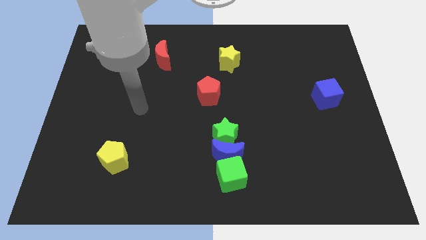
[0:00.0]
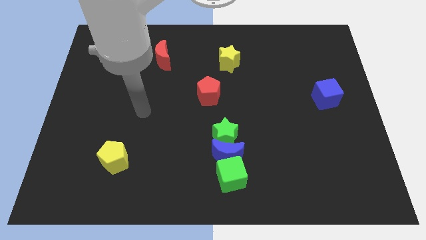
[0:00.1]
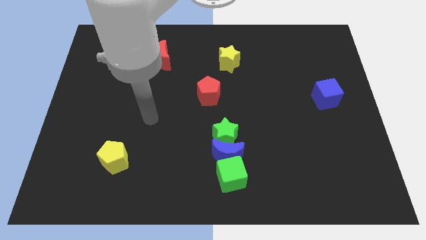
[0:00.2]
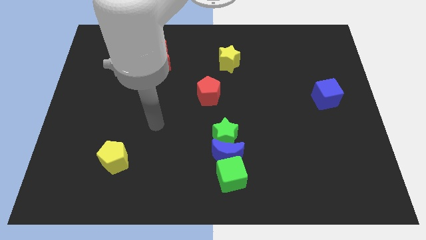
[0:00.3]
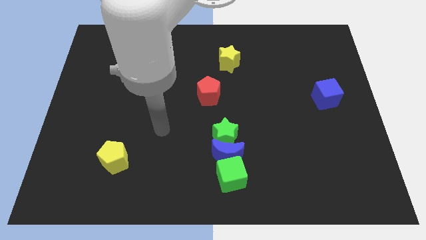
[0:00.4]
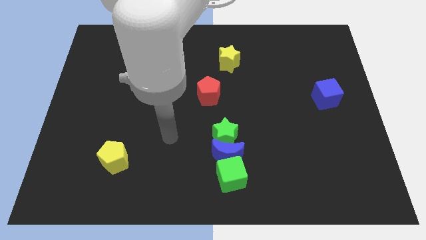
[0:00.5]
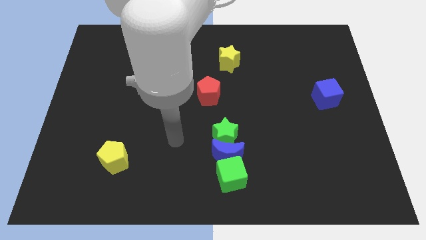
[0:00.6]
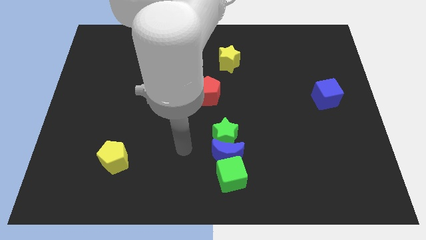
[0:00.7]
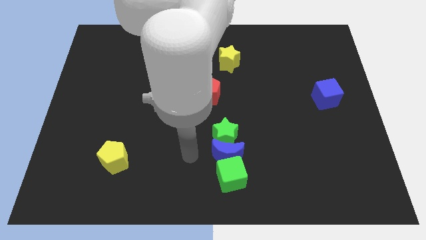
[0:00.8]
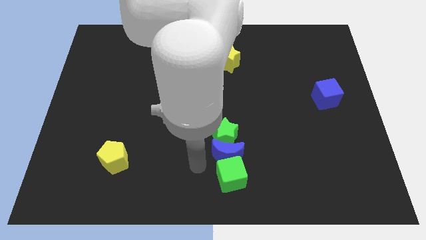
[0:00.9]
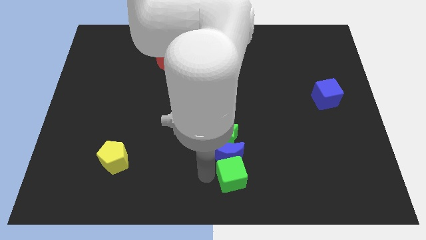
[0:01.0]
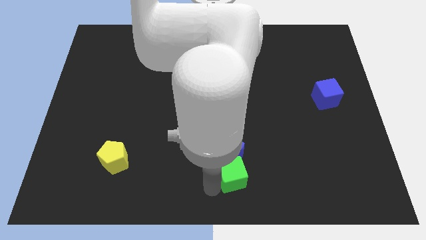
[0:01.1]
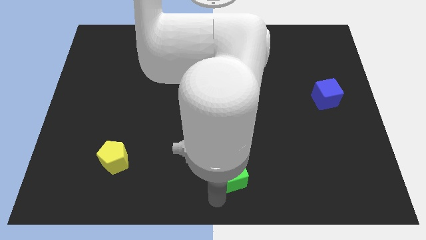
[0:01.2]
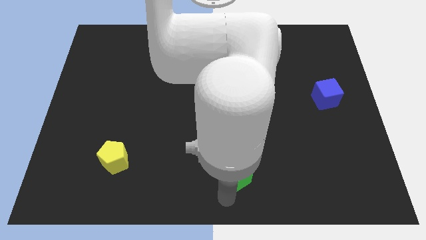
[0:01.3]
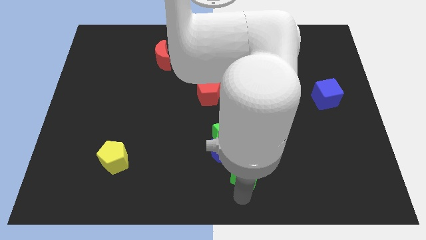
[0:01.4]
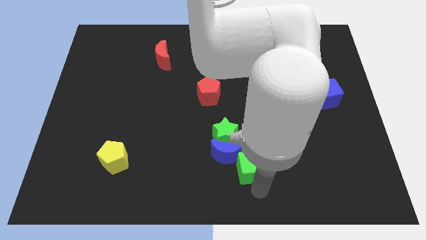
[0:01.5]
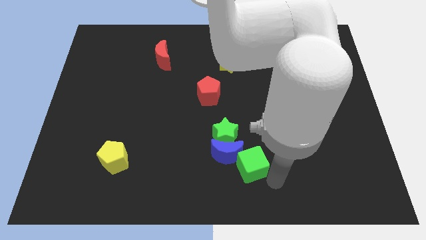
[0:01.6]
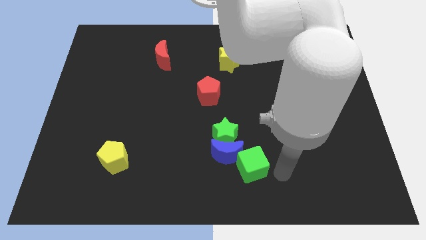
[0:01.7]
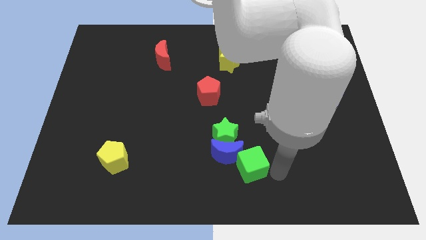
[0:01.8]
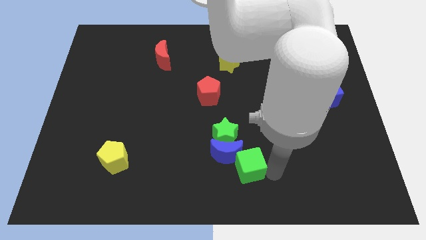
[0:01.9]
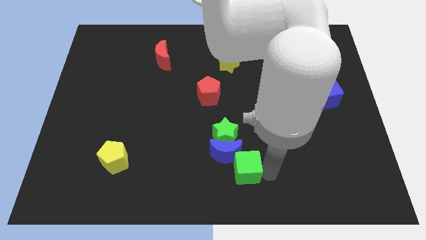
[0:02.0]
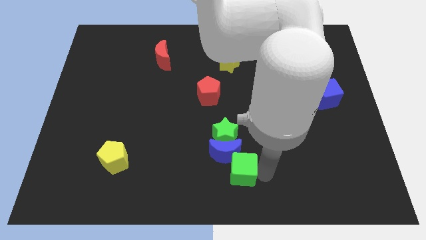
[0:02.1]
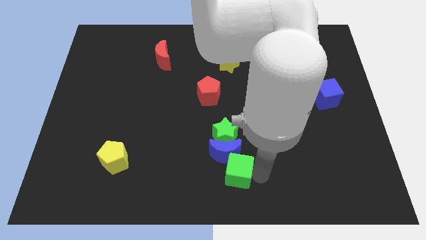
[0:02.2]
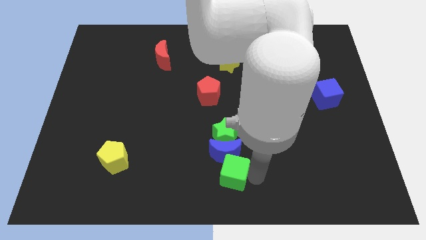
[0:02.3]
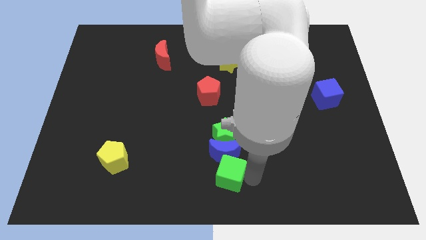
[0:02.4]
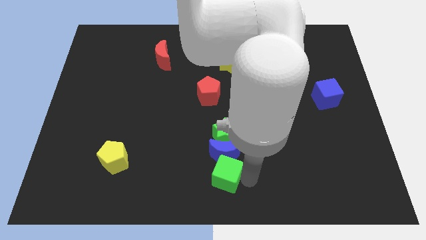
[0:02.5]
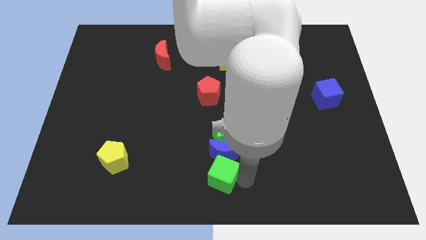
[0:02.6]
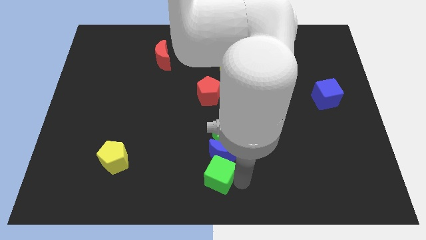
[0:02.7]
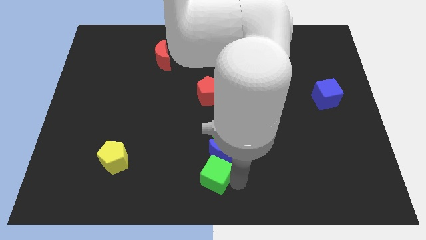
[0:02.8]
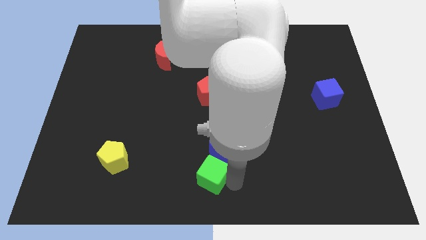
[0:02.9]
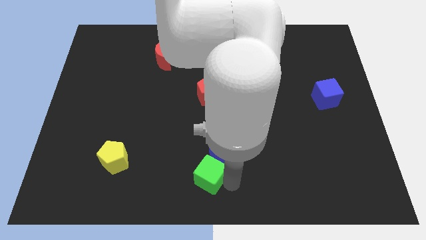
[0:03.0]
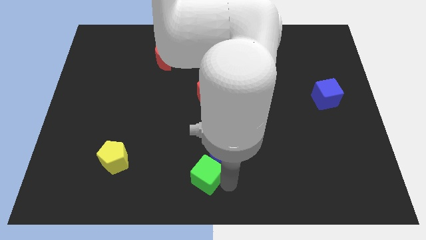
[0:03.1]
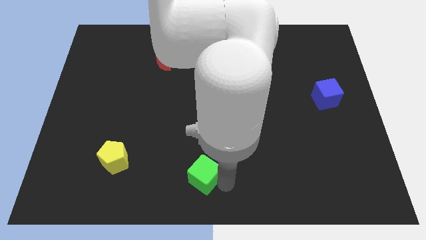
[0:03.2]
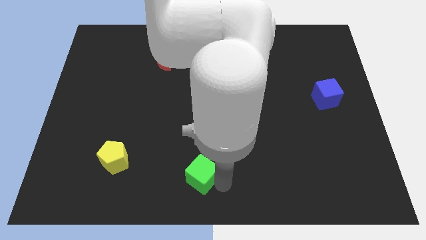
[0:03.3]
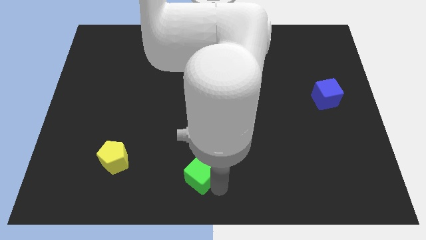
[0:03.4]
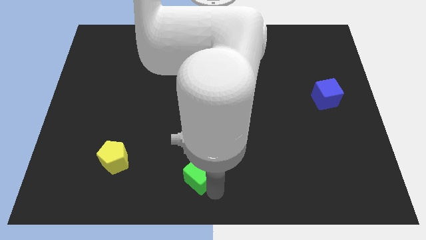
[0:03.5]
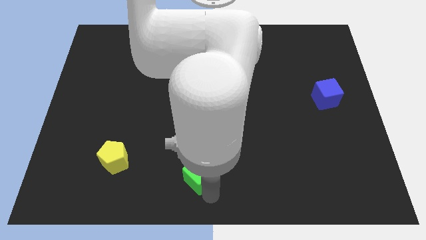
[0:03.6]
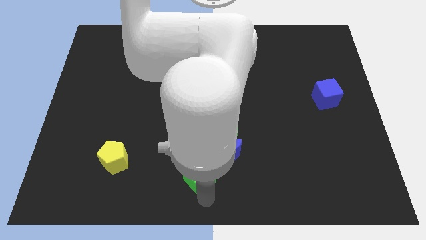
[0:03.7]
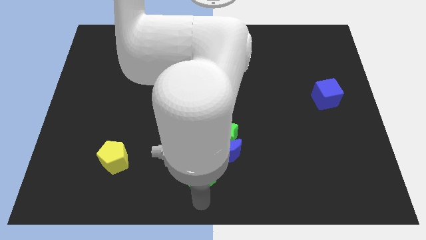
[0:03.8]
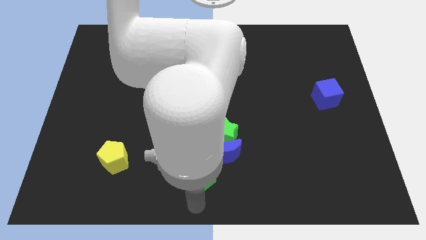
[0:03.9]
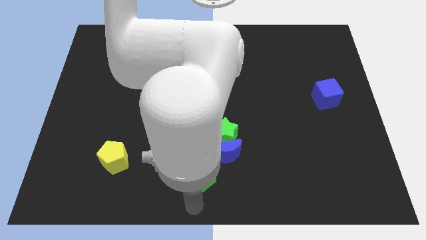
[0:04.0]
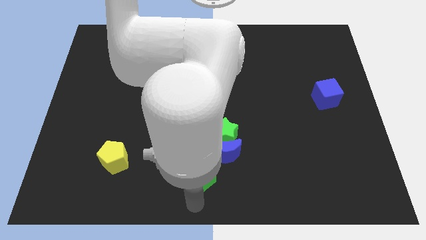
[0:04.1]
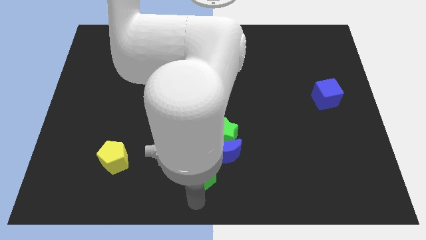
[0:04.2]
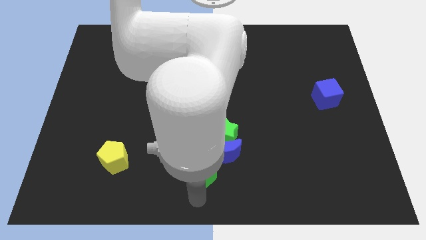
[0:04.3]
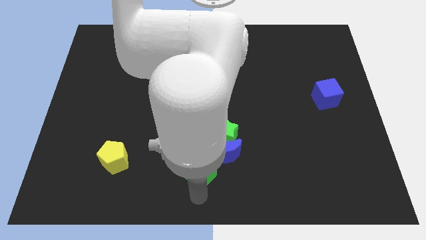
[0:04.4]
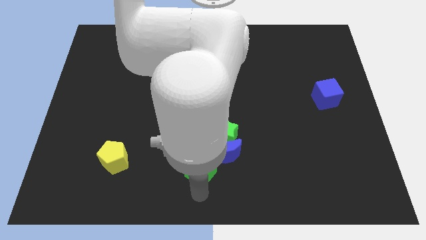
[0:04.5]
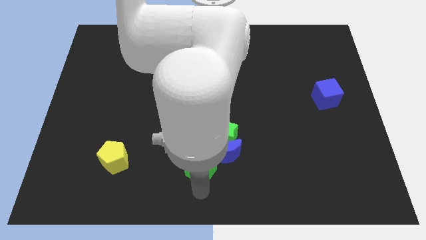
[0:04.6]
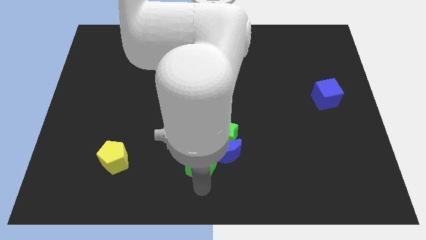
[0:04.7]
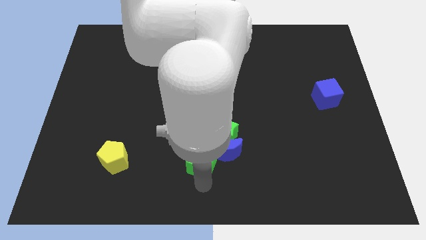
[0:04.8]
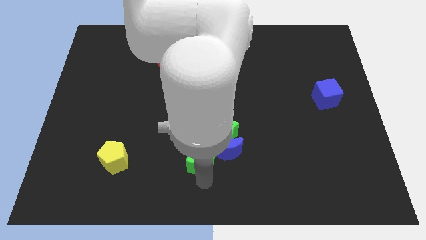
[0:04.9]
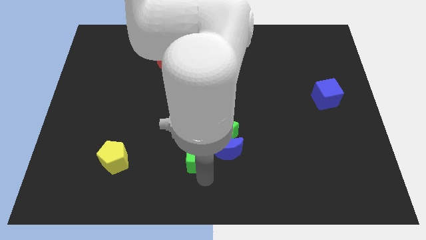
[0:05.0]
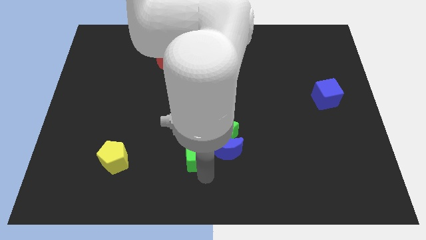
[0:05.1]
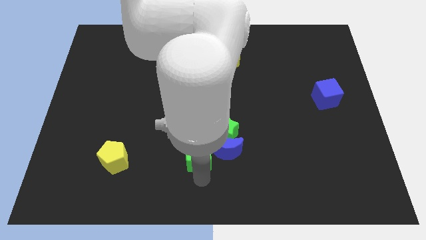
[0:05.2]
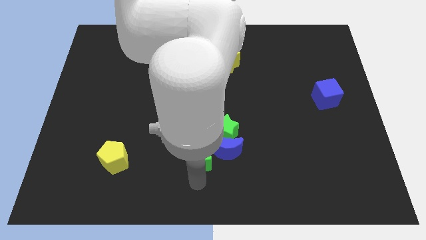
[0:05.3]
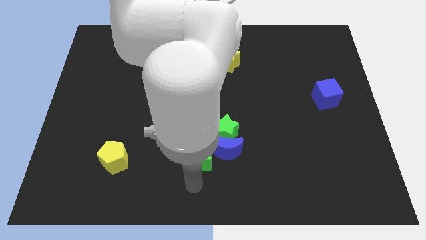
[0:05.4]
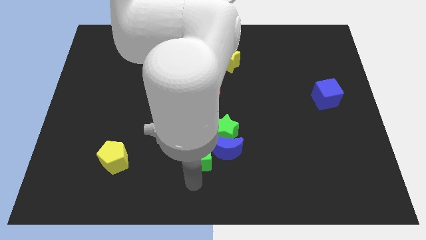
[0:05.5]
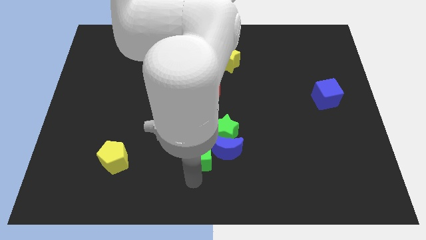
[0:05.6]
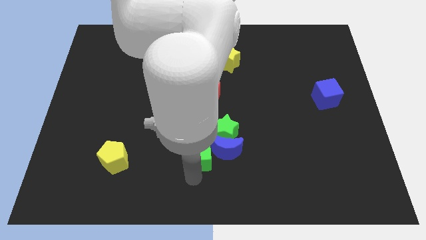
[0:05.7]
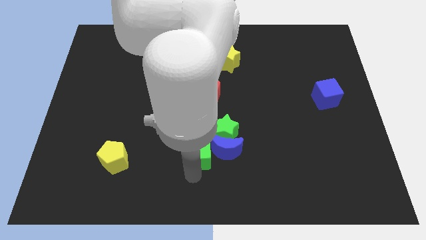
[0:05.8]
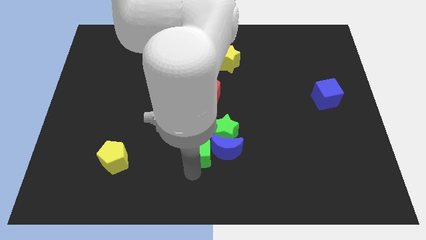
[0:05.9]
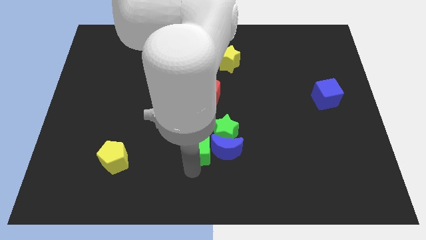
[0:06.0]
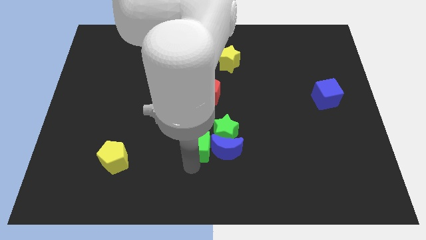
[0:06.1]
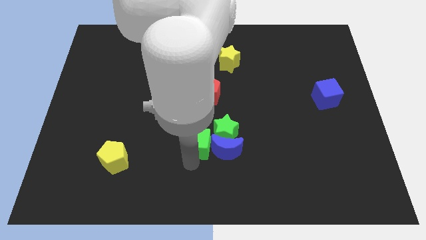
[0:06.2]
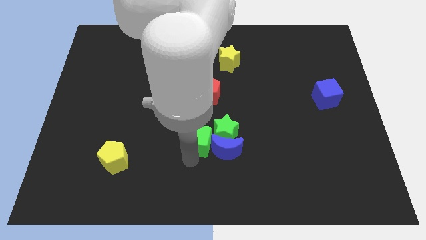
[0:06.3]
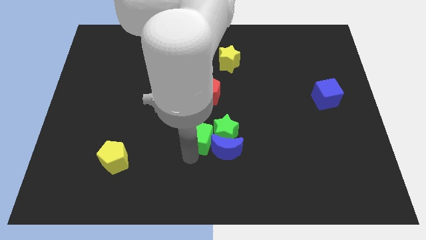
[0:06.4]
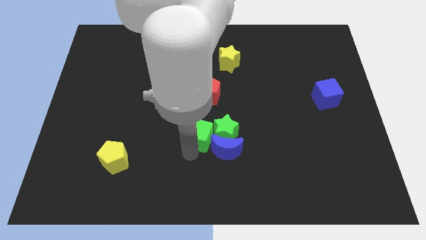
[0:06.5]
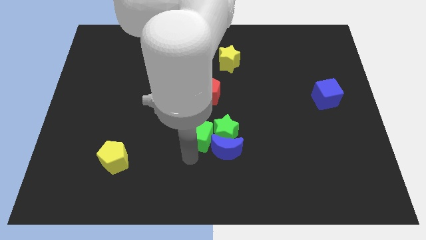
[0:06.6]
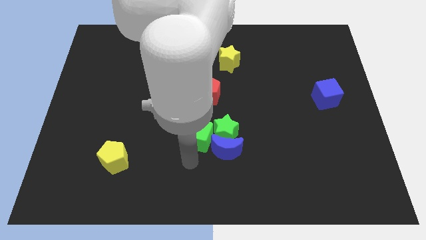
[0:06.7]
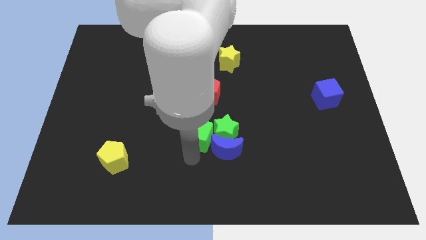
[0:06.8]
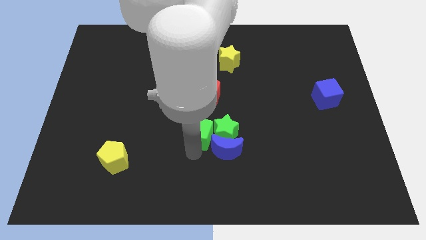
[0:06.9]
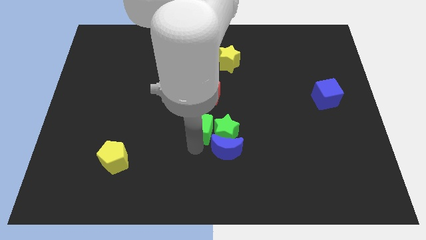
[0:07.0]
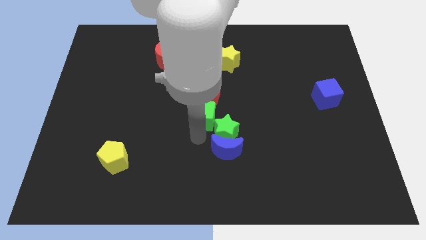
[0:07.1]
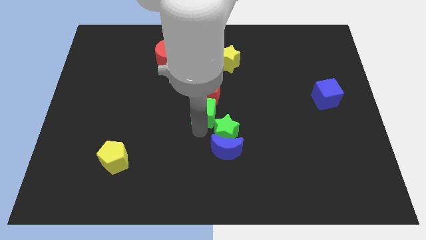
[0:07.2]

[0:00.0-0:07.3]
push the green cube to the red pentagon

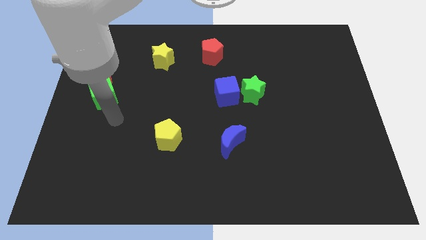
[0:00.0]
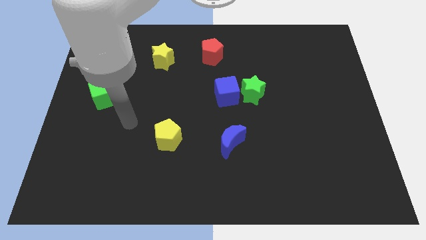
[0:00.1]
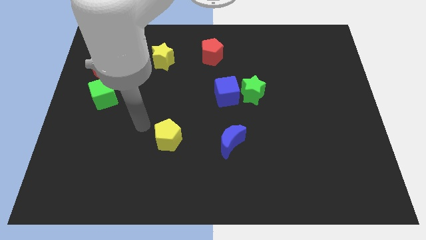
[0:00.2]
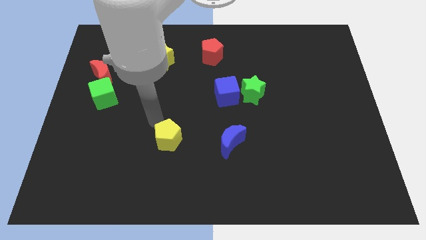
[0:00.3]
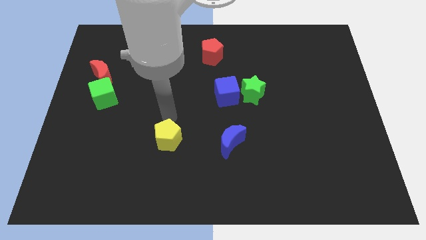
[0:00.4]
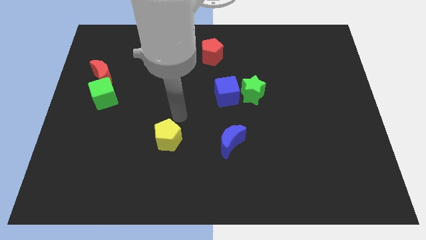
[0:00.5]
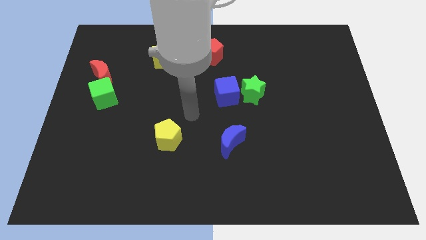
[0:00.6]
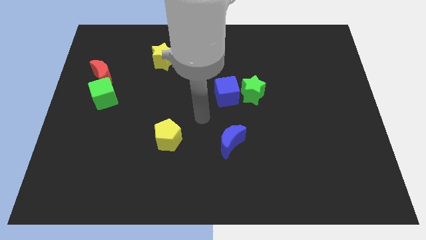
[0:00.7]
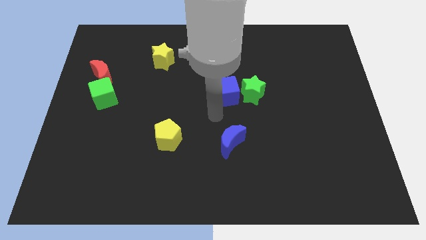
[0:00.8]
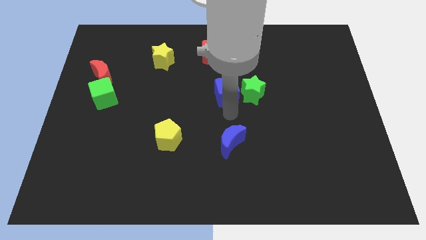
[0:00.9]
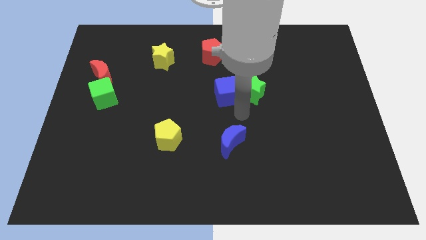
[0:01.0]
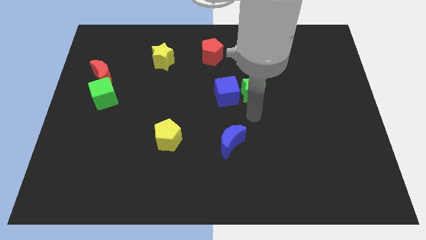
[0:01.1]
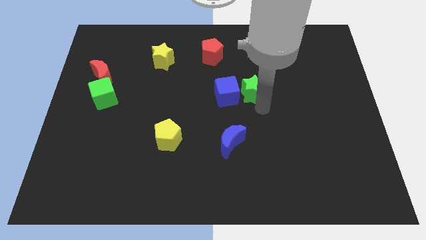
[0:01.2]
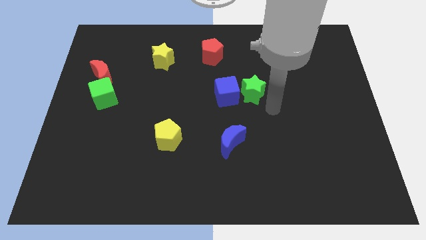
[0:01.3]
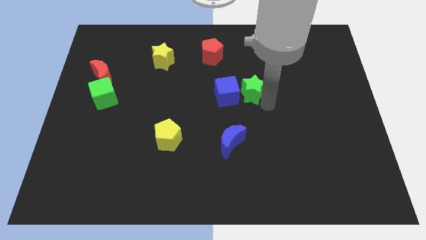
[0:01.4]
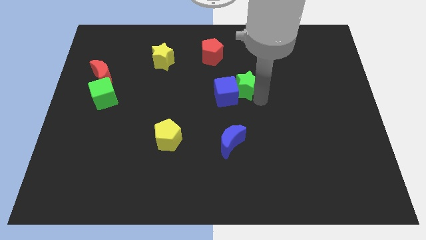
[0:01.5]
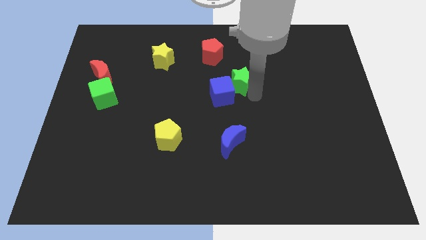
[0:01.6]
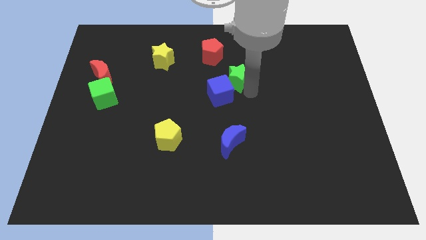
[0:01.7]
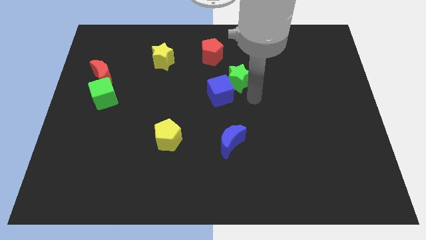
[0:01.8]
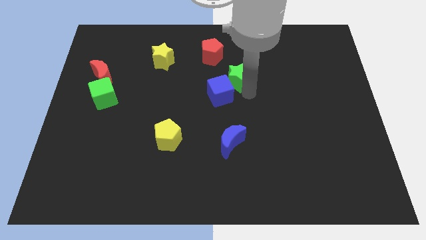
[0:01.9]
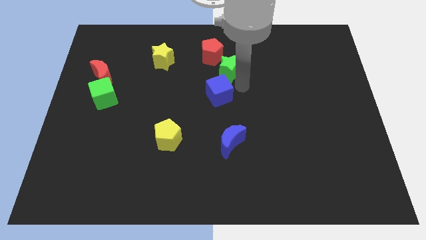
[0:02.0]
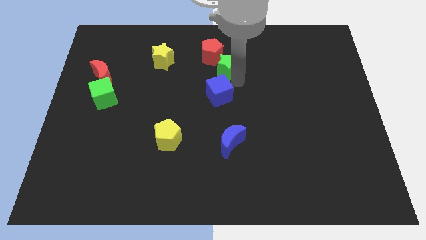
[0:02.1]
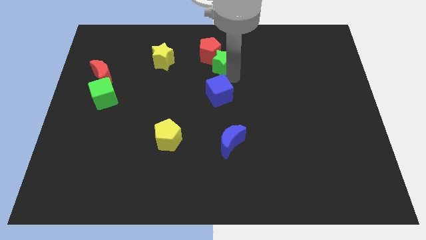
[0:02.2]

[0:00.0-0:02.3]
push the green star next to the red pentagon
